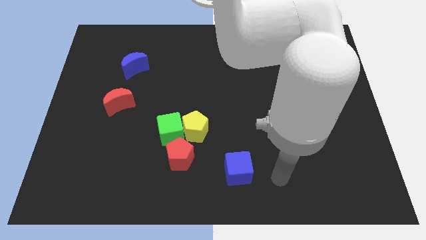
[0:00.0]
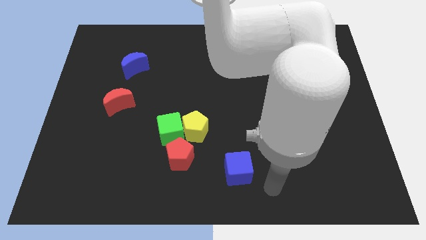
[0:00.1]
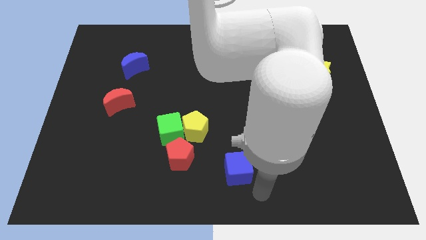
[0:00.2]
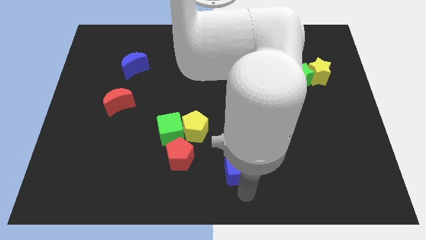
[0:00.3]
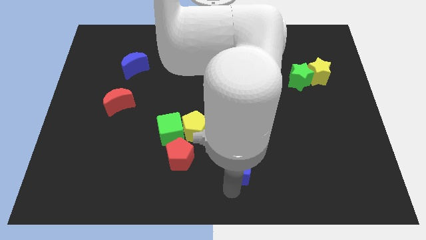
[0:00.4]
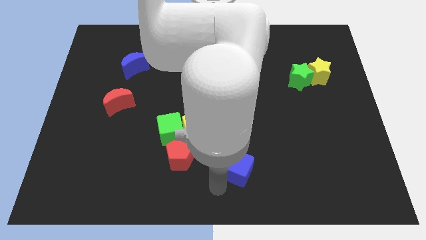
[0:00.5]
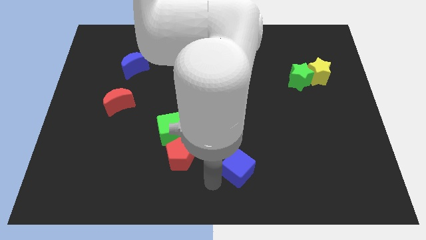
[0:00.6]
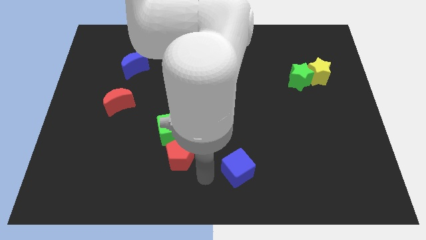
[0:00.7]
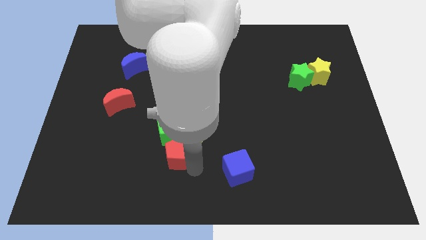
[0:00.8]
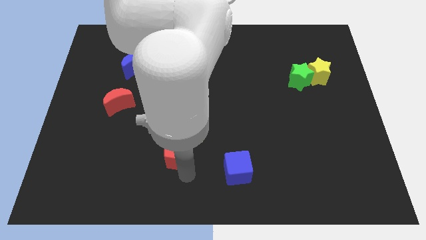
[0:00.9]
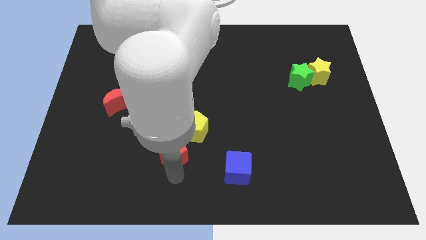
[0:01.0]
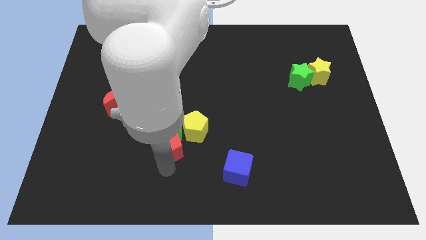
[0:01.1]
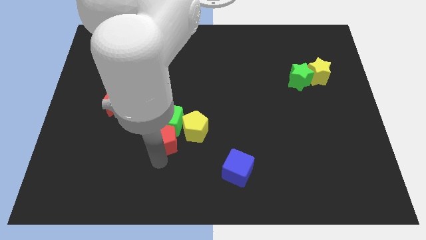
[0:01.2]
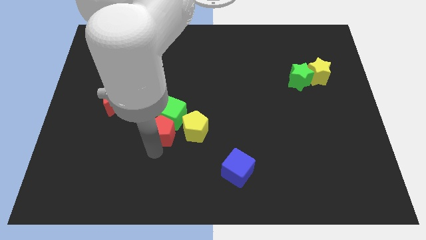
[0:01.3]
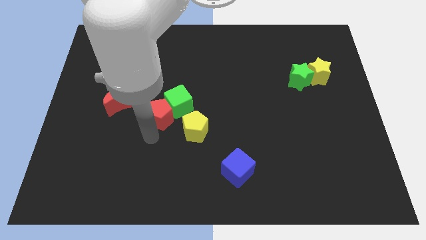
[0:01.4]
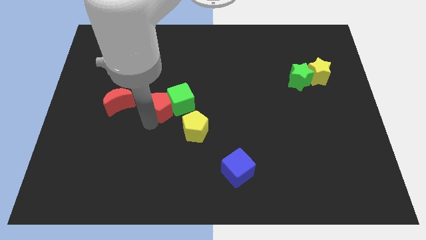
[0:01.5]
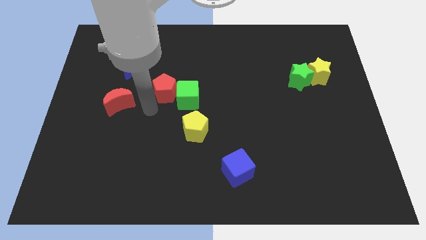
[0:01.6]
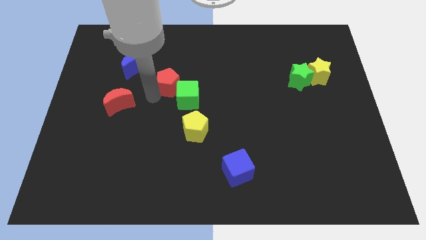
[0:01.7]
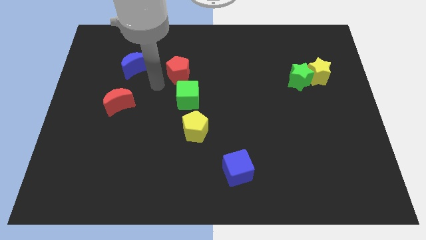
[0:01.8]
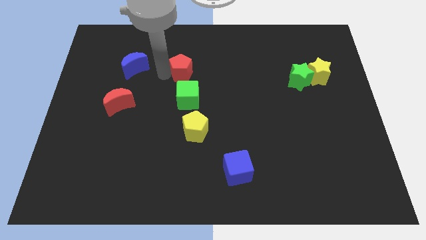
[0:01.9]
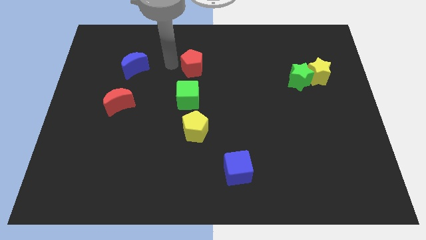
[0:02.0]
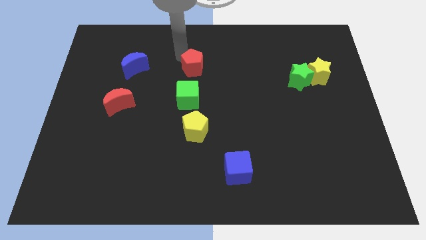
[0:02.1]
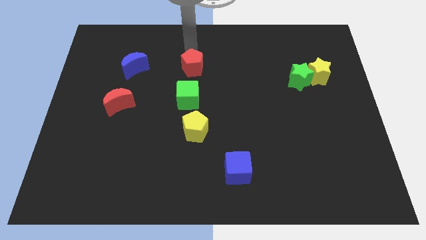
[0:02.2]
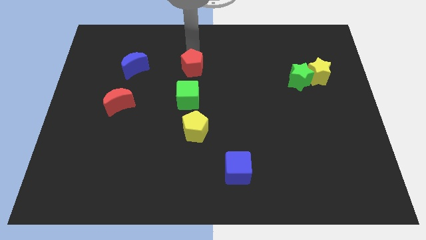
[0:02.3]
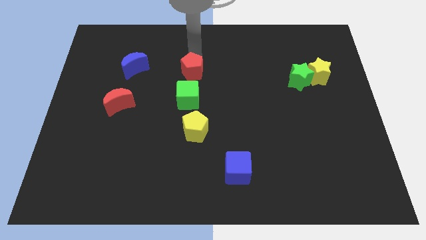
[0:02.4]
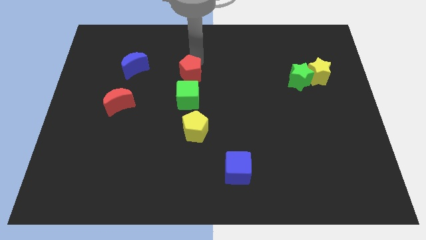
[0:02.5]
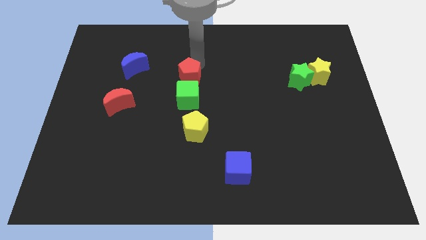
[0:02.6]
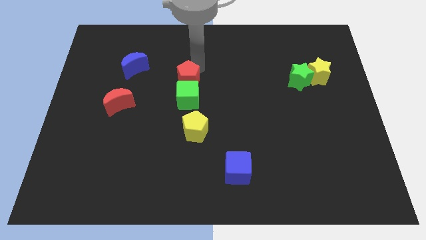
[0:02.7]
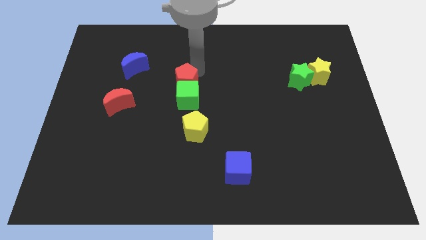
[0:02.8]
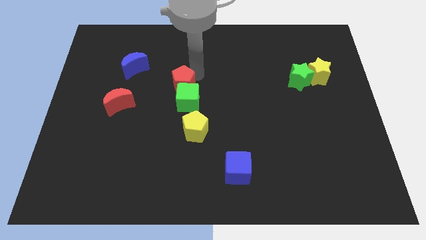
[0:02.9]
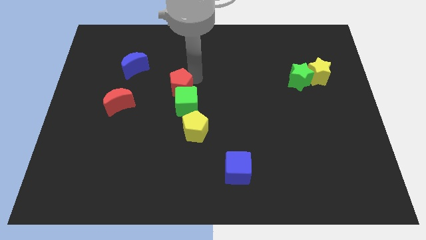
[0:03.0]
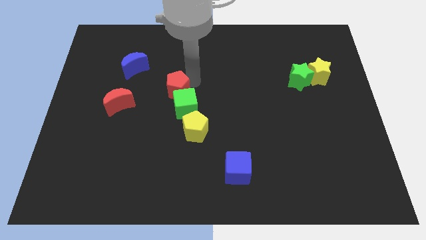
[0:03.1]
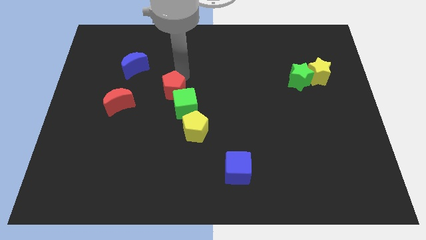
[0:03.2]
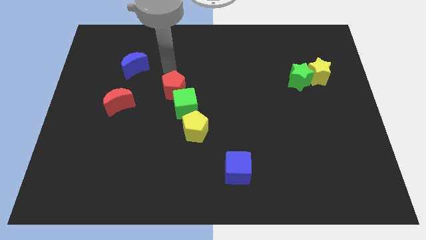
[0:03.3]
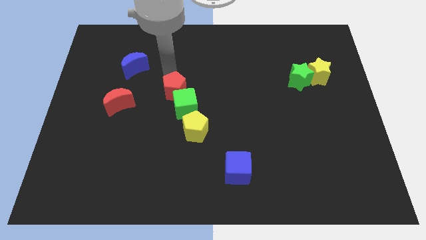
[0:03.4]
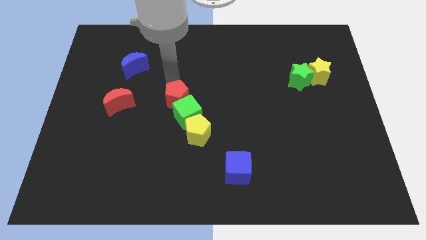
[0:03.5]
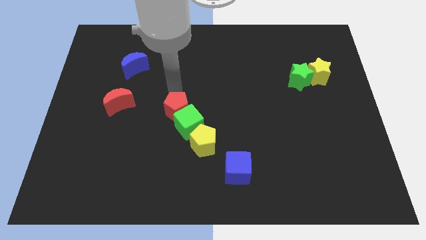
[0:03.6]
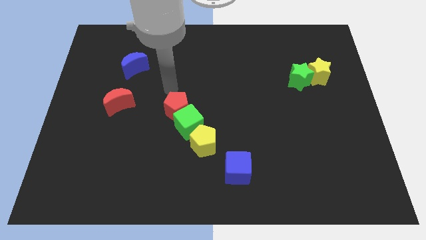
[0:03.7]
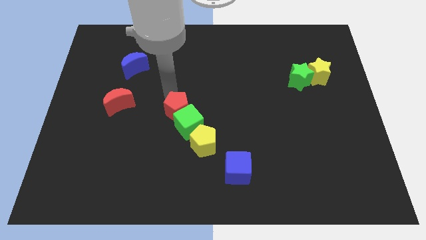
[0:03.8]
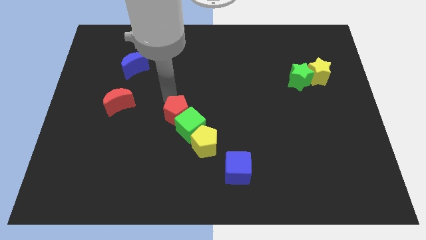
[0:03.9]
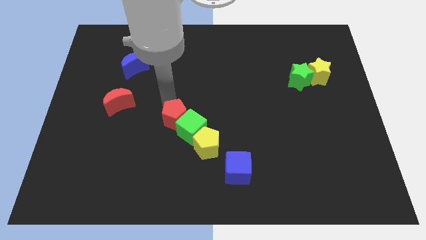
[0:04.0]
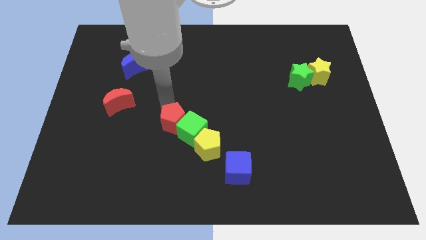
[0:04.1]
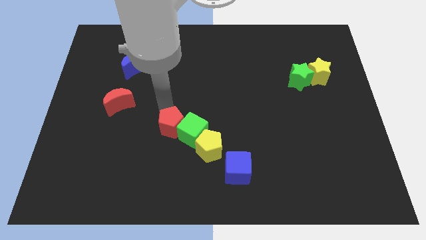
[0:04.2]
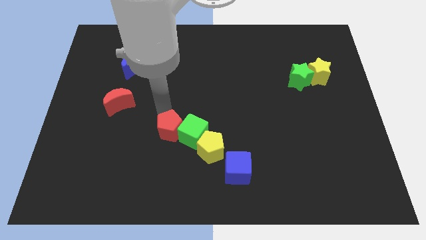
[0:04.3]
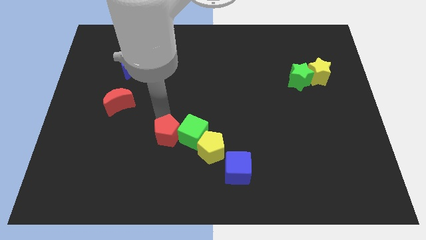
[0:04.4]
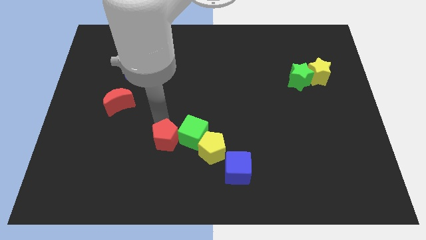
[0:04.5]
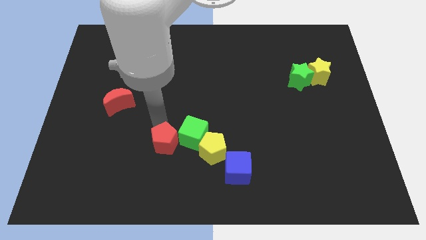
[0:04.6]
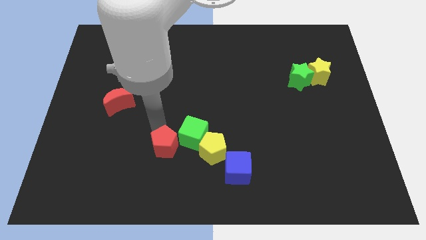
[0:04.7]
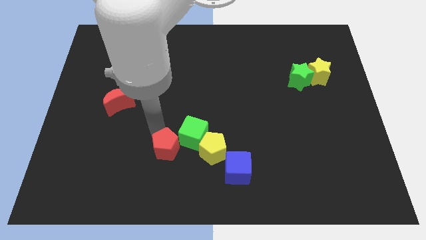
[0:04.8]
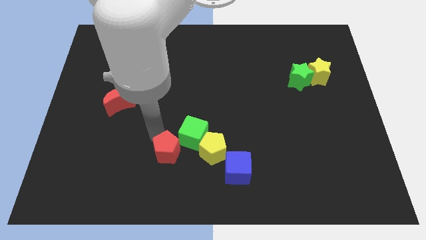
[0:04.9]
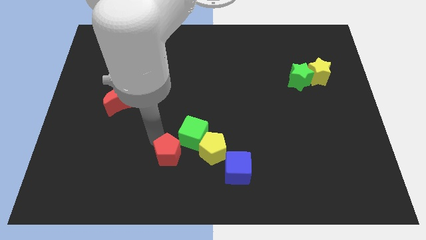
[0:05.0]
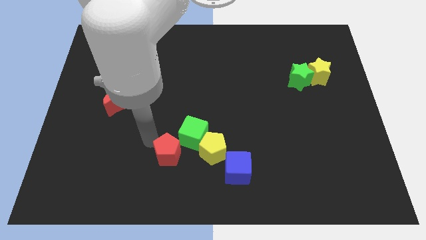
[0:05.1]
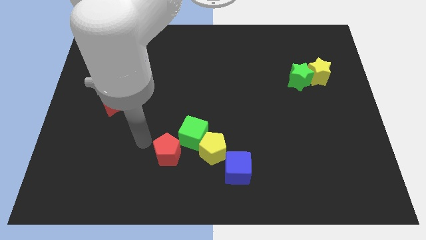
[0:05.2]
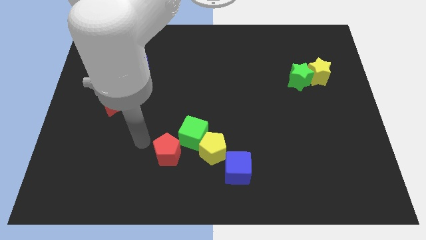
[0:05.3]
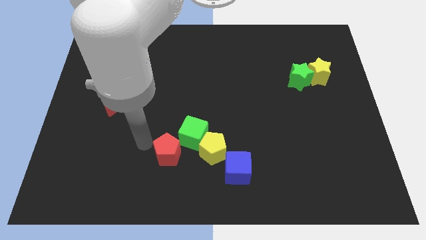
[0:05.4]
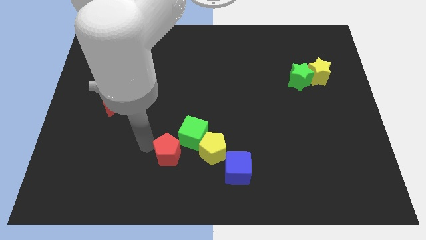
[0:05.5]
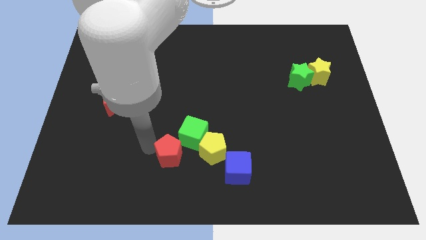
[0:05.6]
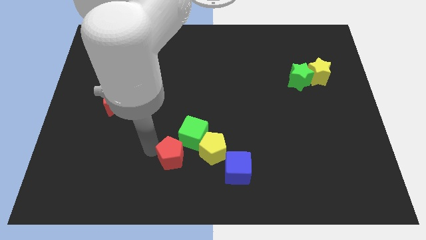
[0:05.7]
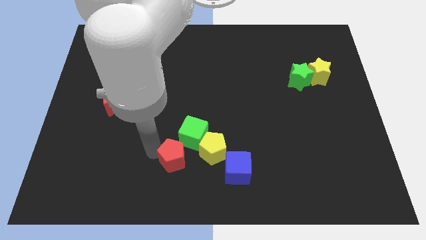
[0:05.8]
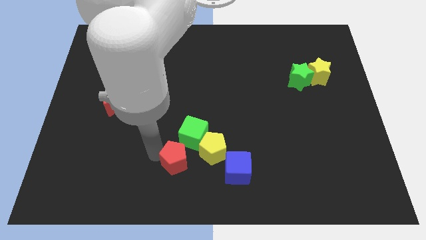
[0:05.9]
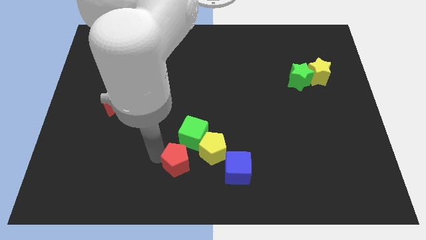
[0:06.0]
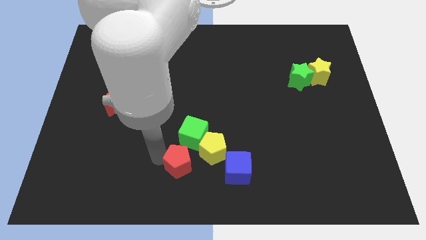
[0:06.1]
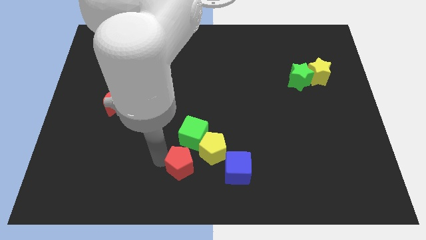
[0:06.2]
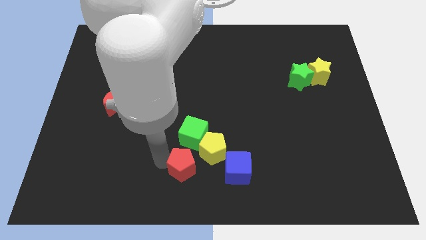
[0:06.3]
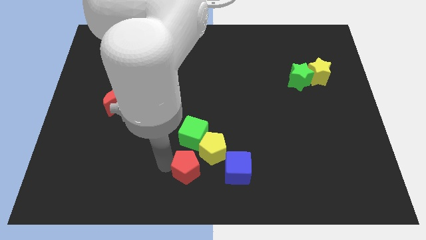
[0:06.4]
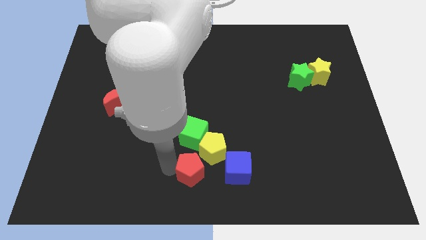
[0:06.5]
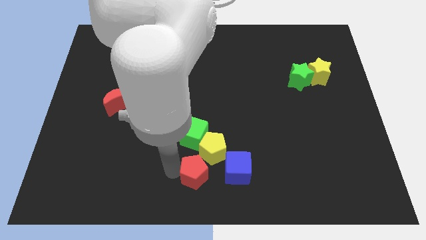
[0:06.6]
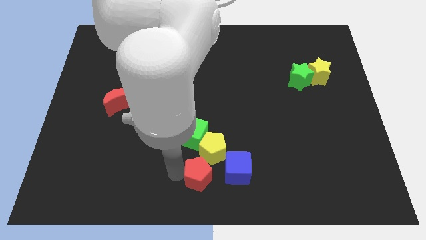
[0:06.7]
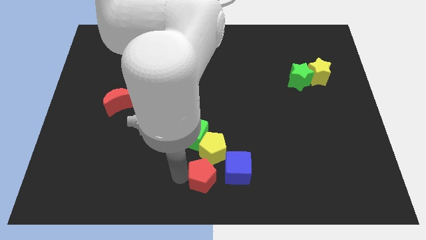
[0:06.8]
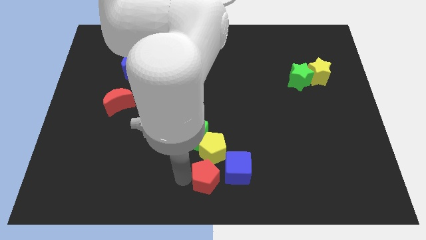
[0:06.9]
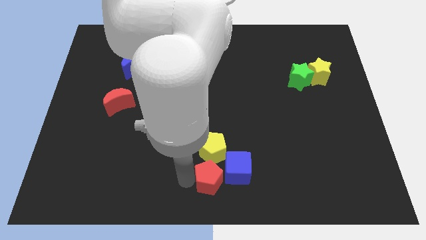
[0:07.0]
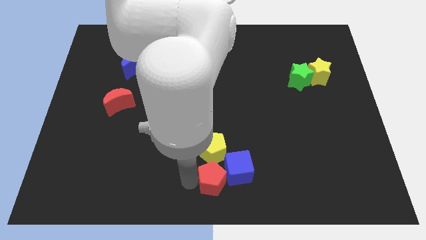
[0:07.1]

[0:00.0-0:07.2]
put the red pentagon next to the blue cube

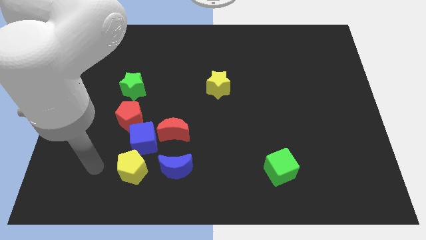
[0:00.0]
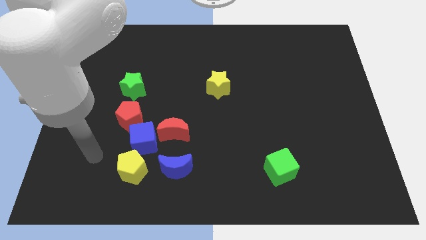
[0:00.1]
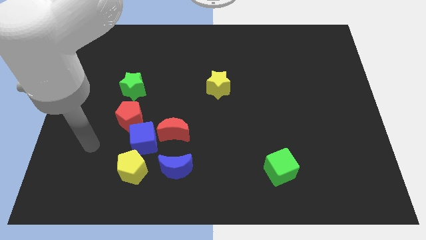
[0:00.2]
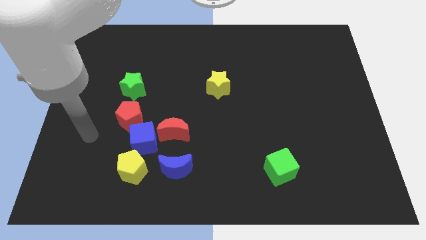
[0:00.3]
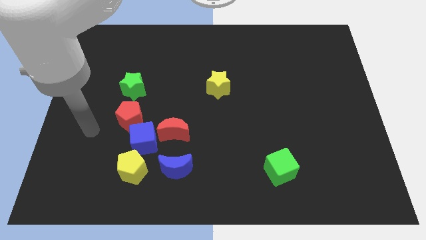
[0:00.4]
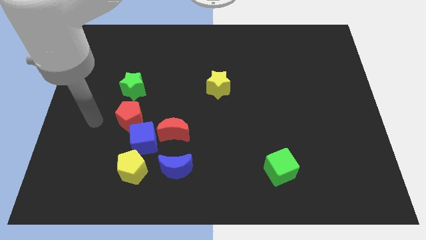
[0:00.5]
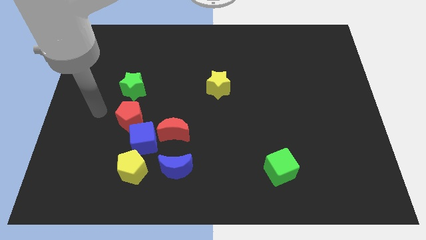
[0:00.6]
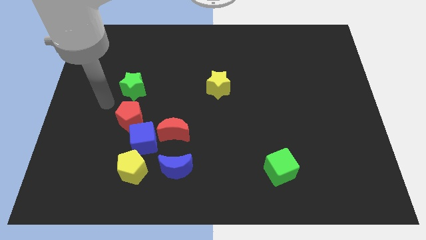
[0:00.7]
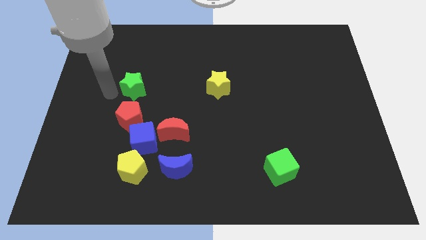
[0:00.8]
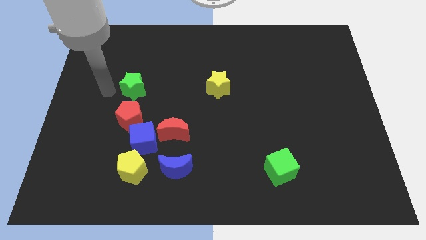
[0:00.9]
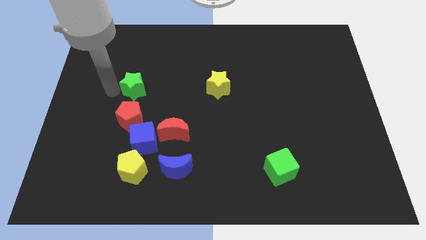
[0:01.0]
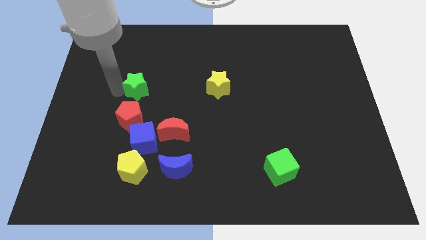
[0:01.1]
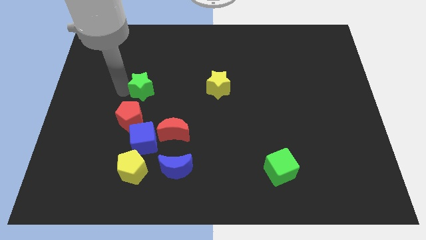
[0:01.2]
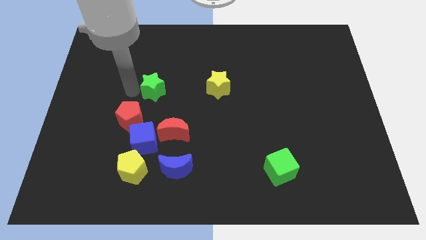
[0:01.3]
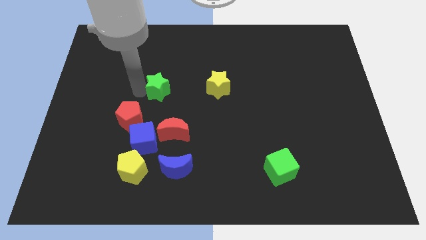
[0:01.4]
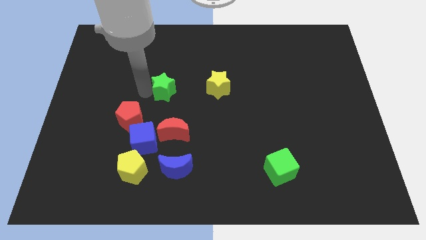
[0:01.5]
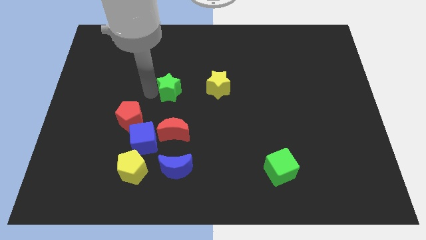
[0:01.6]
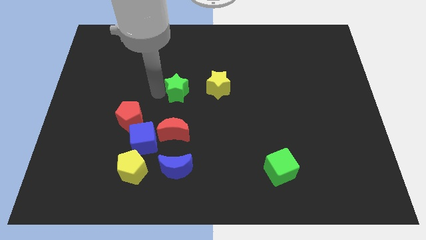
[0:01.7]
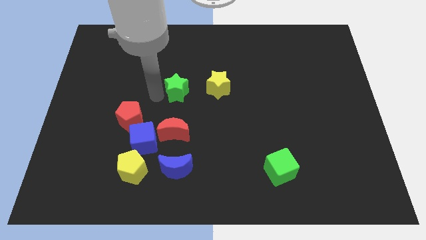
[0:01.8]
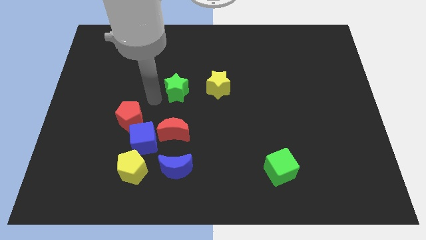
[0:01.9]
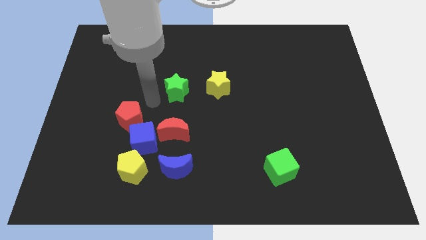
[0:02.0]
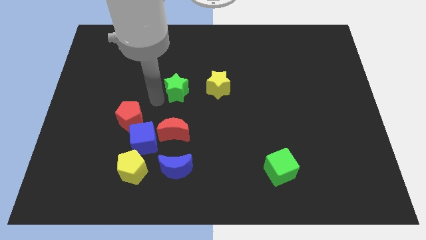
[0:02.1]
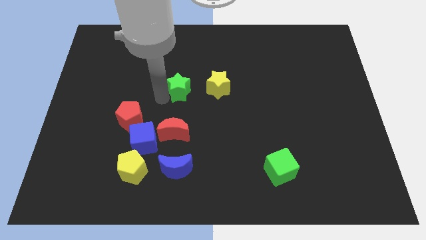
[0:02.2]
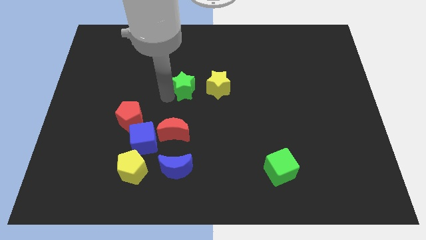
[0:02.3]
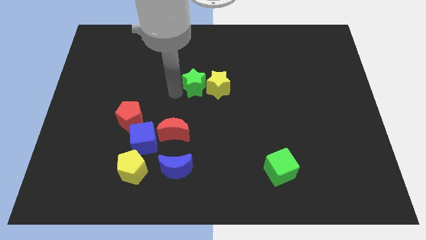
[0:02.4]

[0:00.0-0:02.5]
move the green star close to the yellow star
